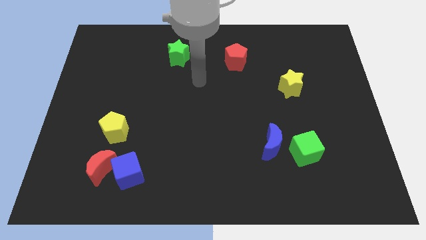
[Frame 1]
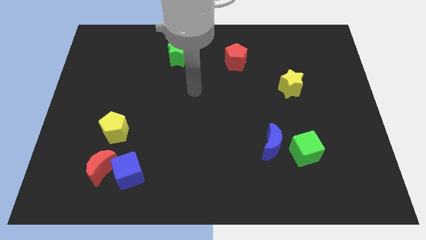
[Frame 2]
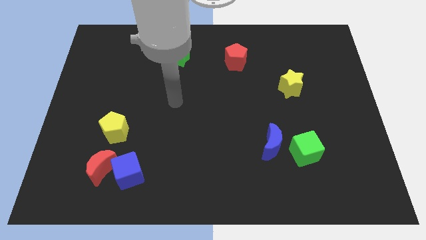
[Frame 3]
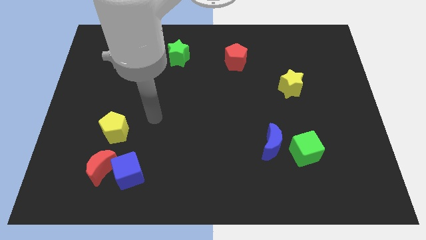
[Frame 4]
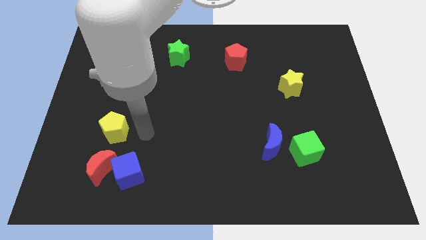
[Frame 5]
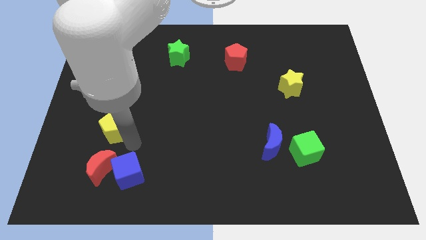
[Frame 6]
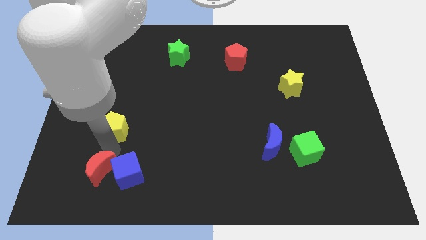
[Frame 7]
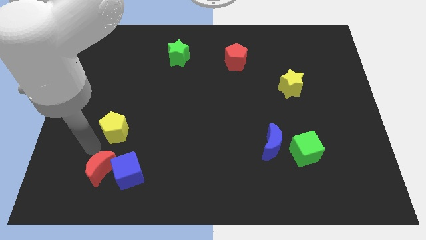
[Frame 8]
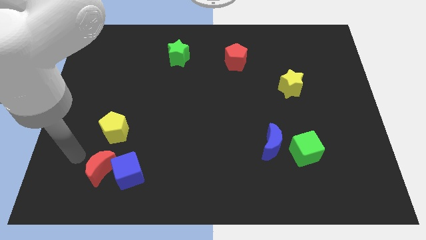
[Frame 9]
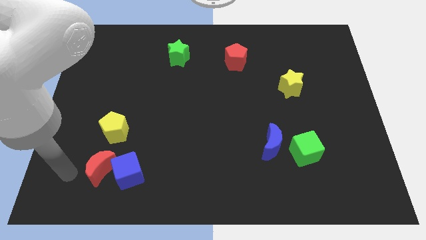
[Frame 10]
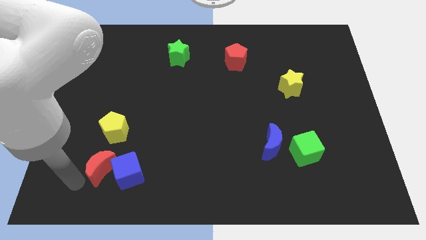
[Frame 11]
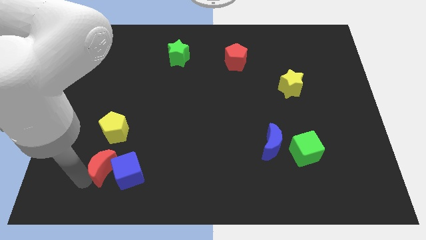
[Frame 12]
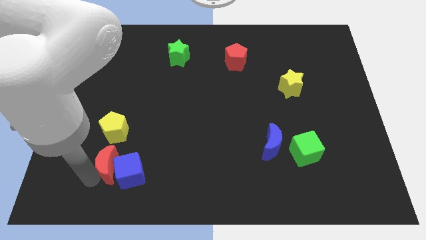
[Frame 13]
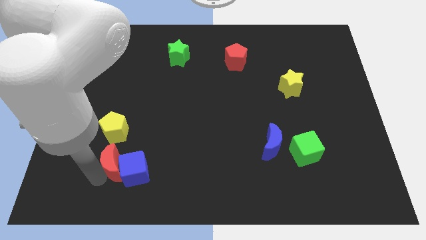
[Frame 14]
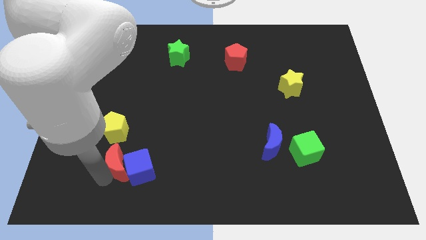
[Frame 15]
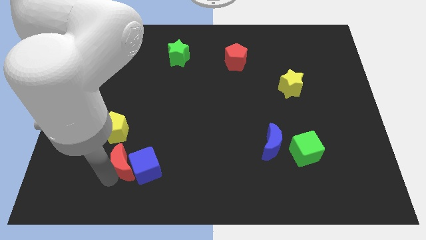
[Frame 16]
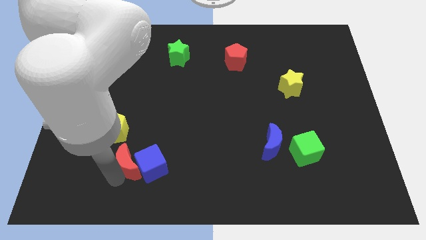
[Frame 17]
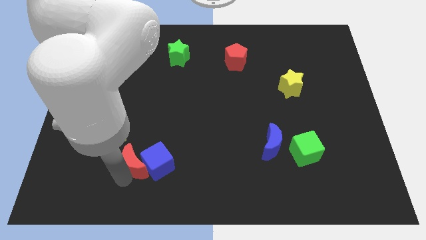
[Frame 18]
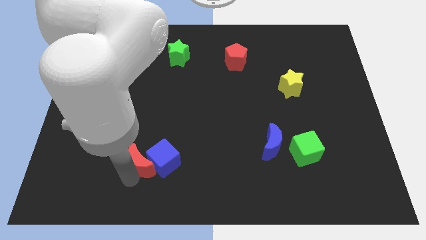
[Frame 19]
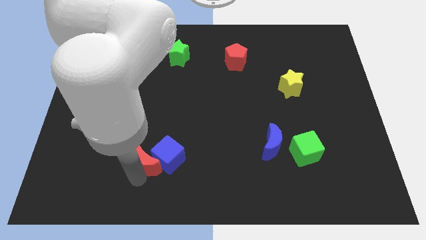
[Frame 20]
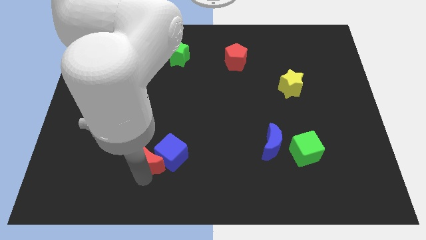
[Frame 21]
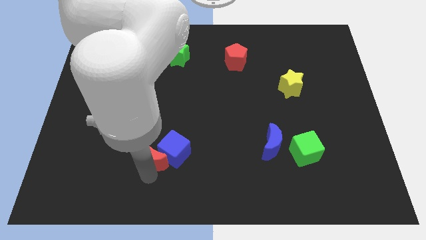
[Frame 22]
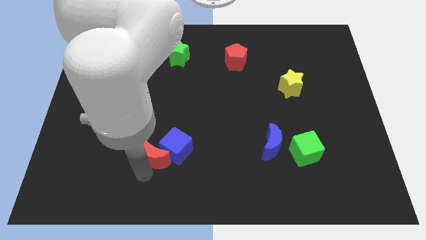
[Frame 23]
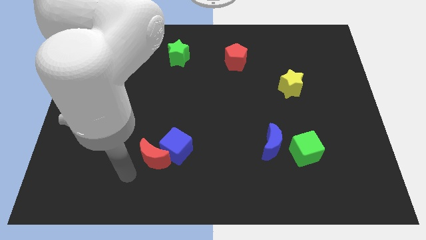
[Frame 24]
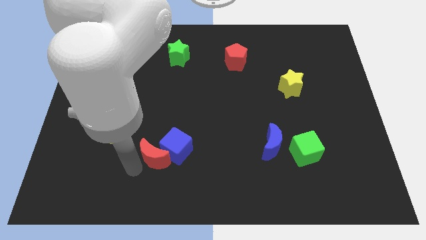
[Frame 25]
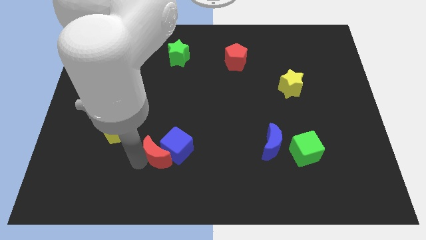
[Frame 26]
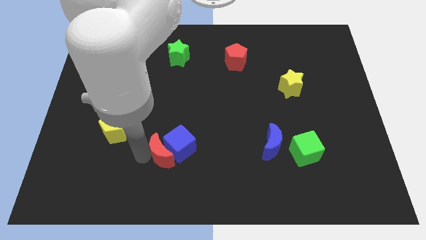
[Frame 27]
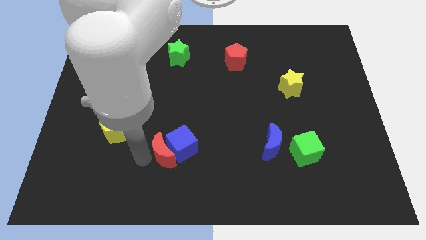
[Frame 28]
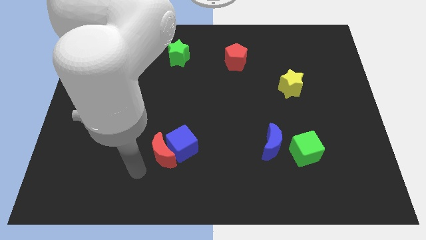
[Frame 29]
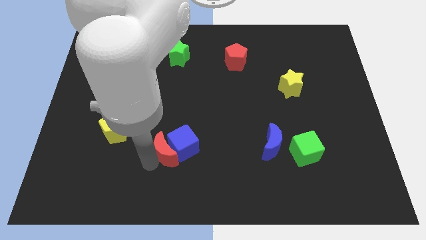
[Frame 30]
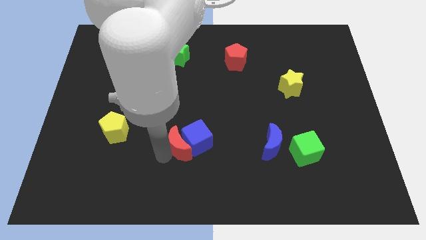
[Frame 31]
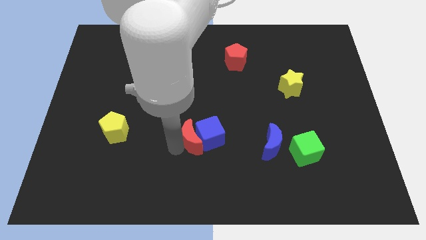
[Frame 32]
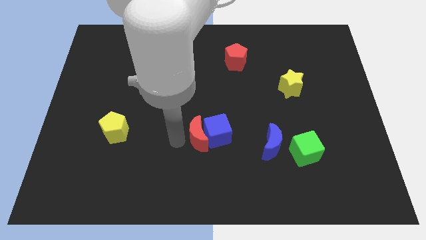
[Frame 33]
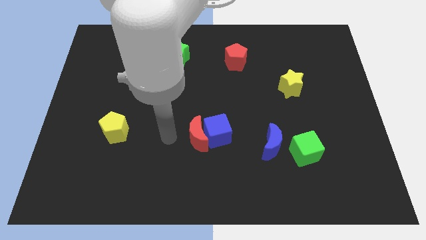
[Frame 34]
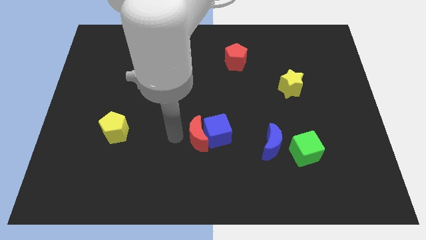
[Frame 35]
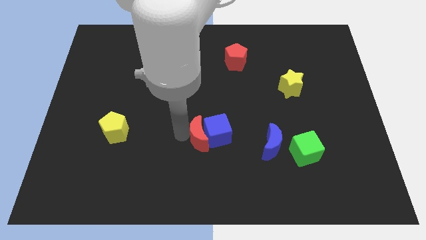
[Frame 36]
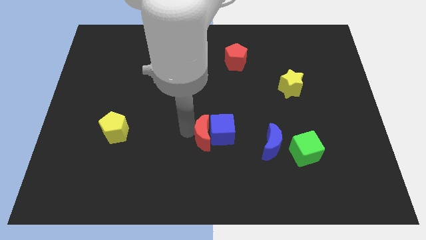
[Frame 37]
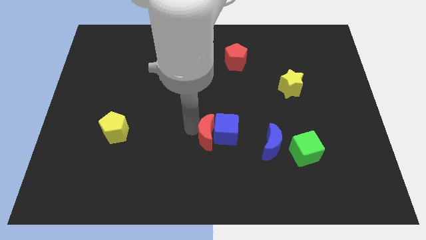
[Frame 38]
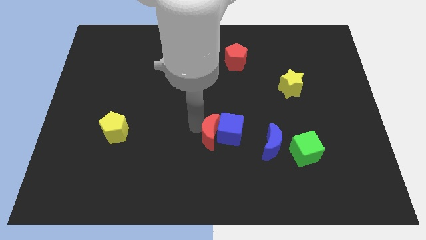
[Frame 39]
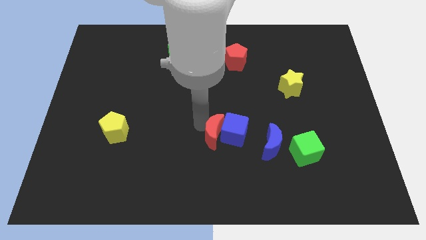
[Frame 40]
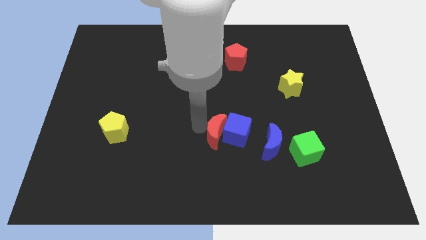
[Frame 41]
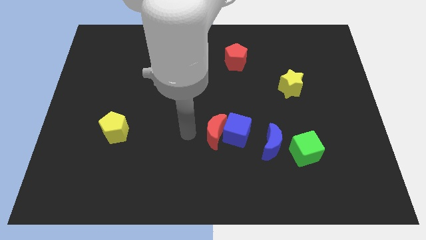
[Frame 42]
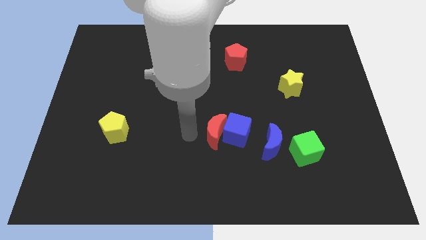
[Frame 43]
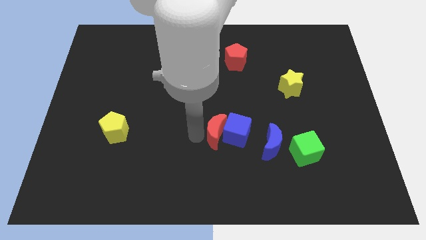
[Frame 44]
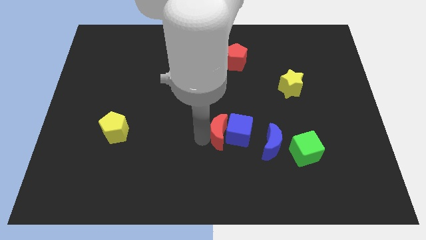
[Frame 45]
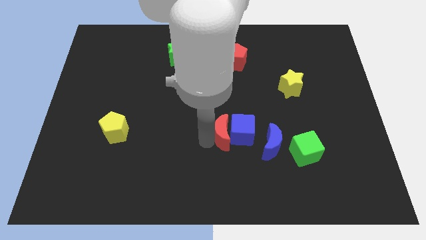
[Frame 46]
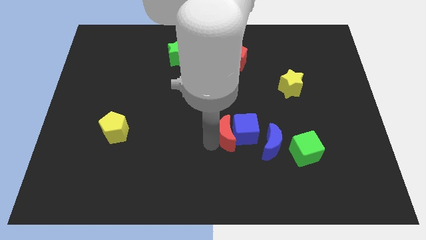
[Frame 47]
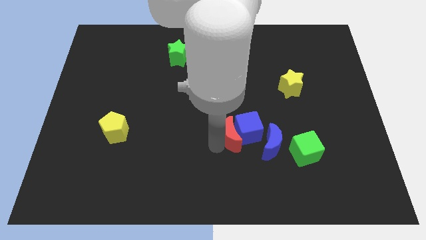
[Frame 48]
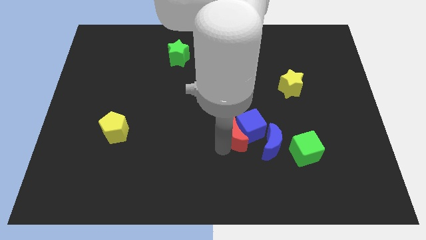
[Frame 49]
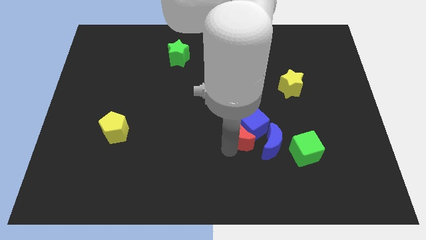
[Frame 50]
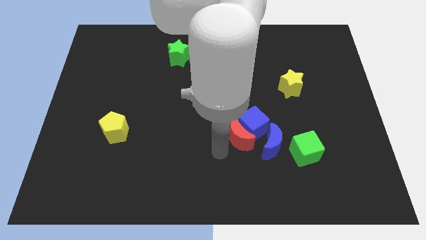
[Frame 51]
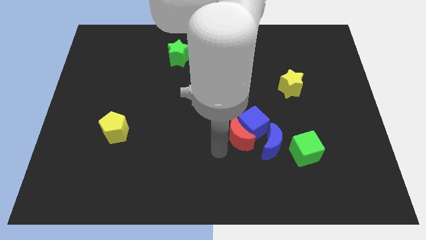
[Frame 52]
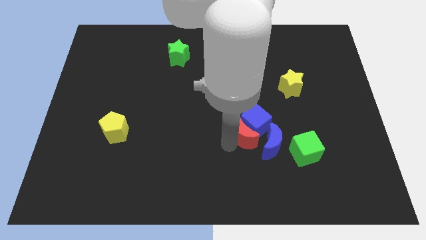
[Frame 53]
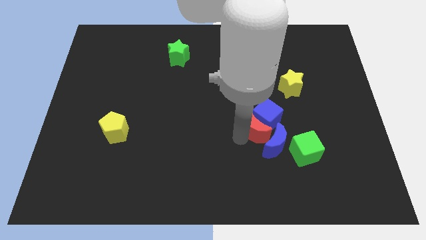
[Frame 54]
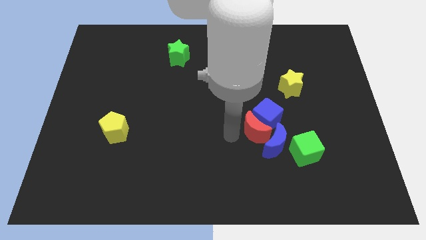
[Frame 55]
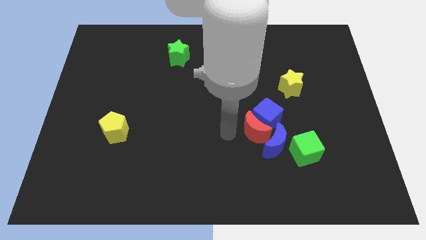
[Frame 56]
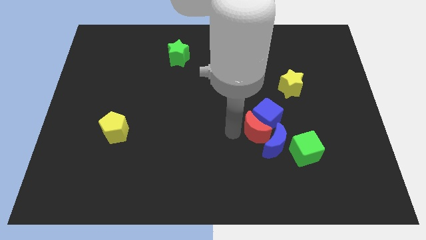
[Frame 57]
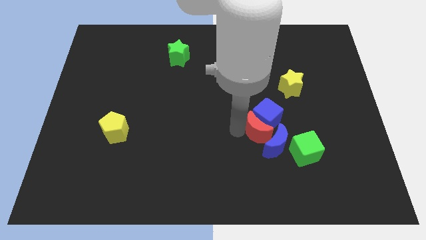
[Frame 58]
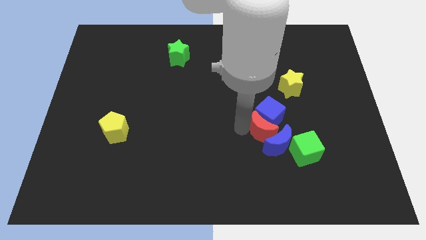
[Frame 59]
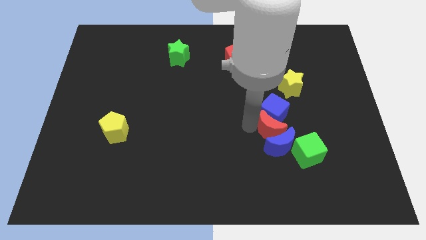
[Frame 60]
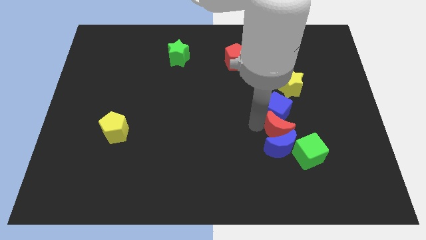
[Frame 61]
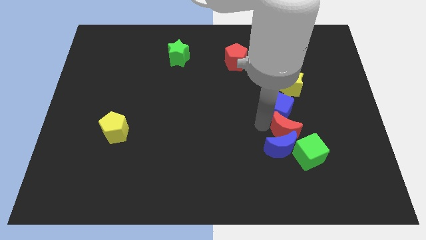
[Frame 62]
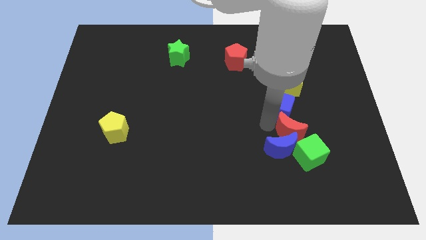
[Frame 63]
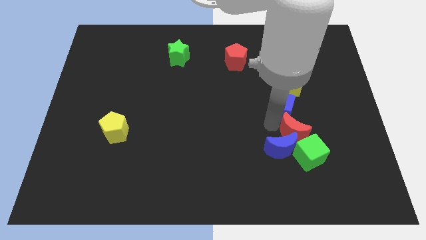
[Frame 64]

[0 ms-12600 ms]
move the red moon right of the blue moon
